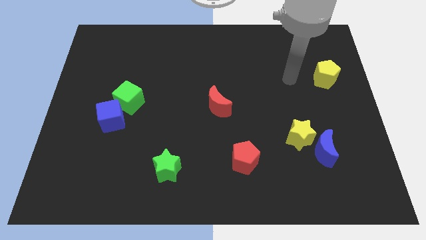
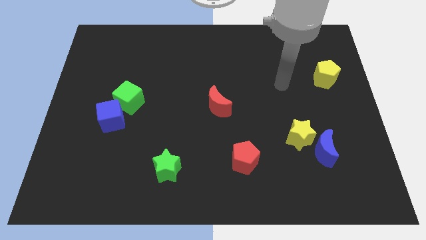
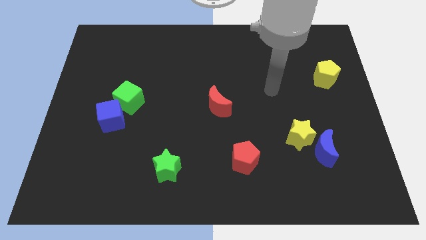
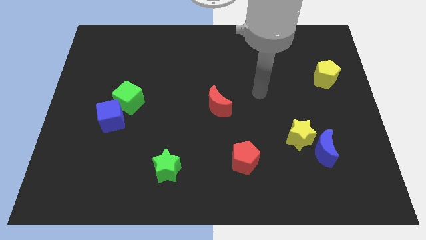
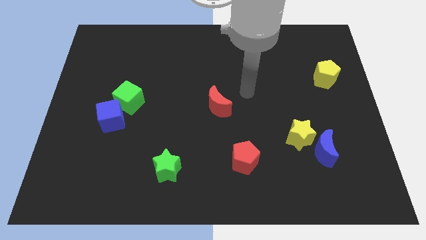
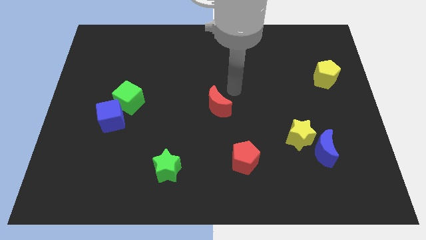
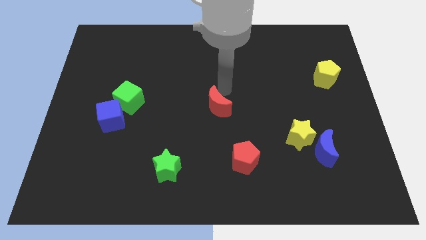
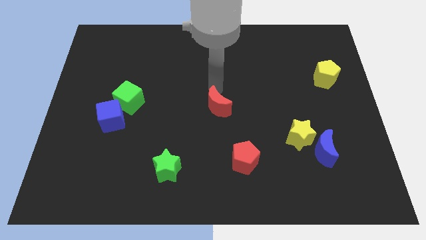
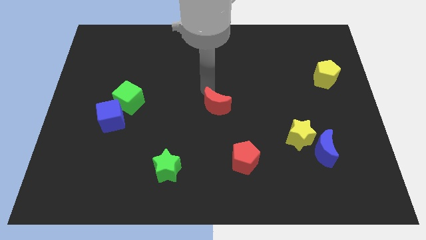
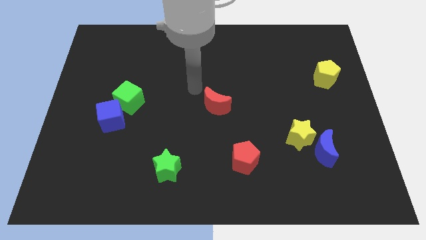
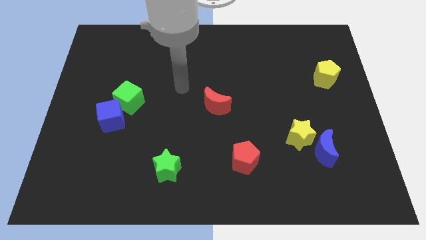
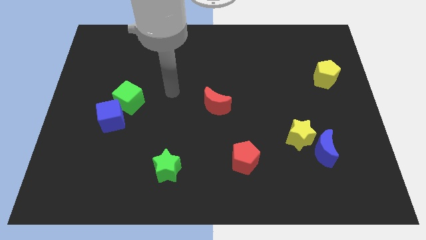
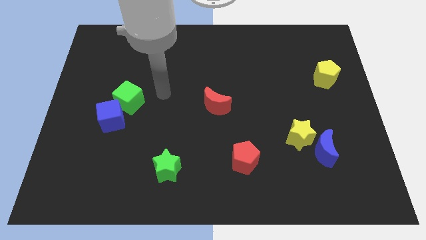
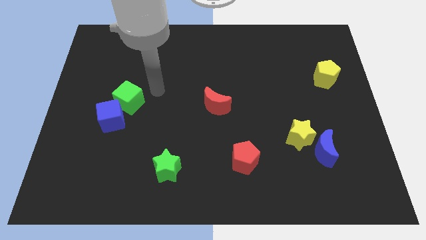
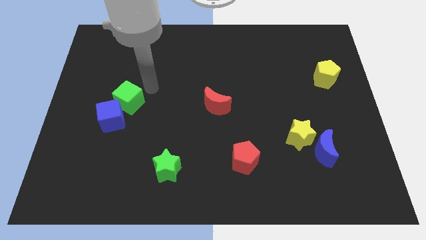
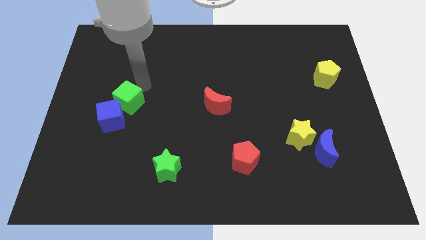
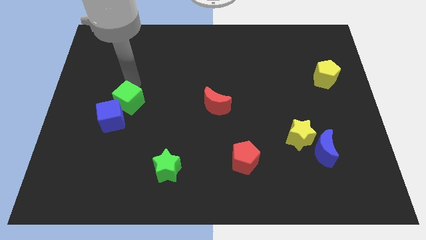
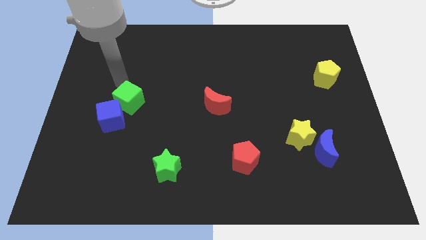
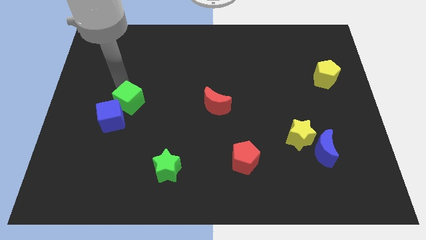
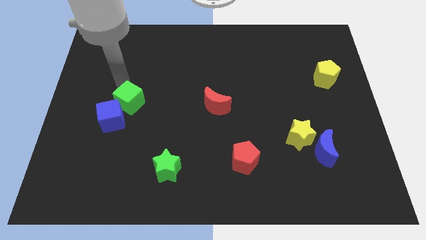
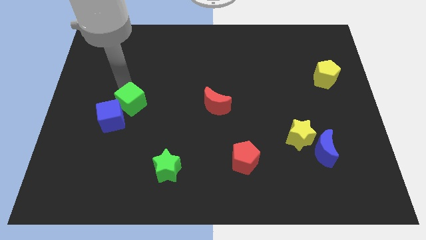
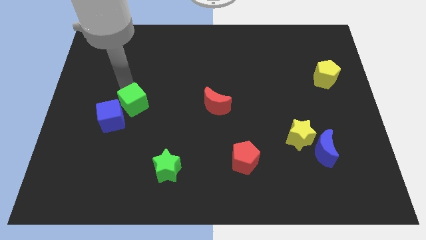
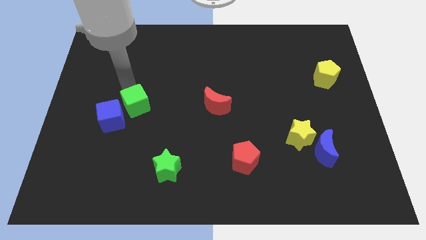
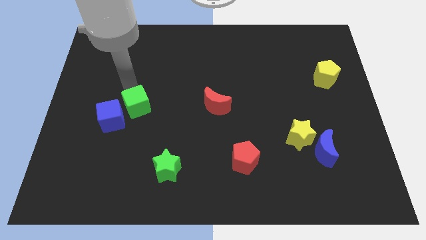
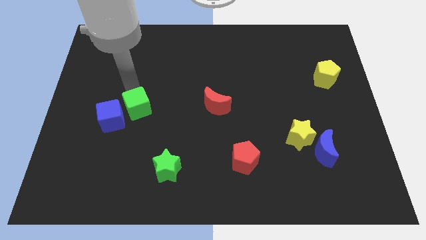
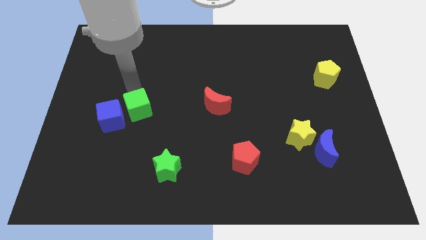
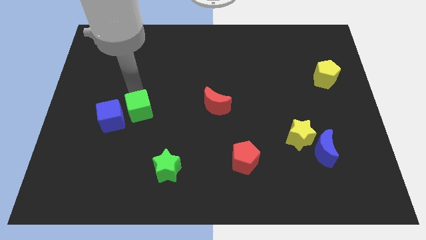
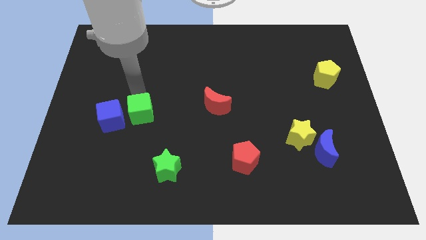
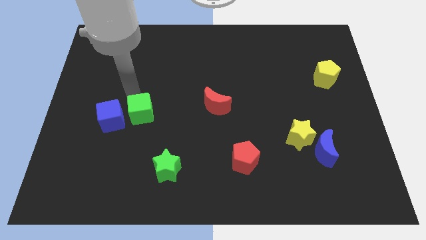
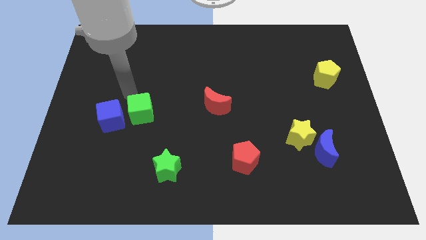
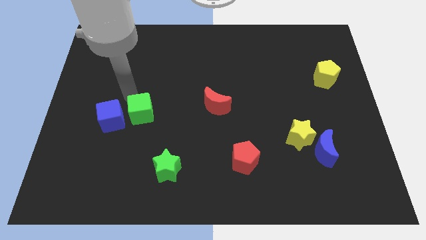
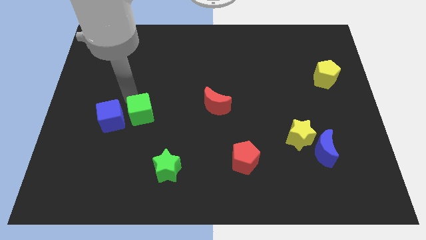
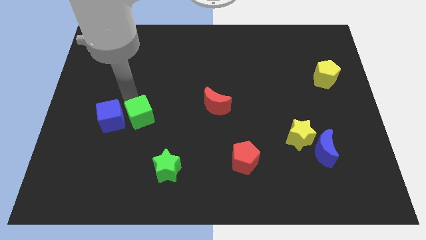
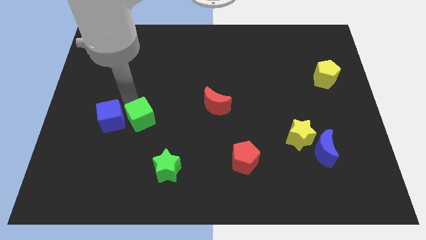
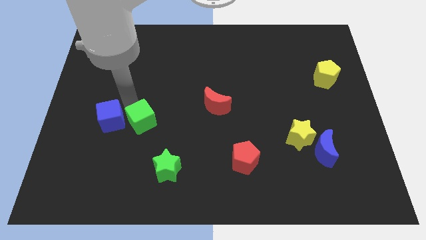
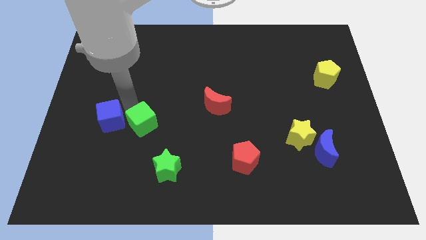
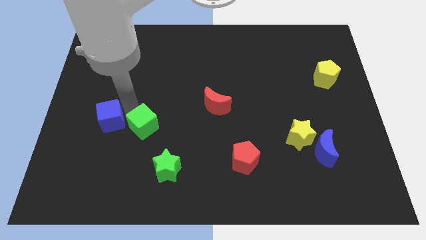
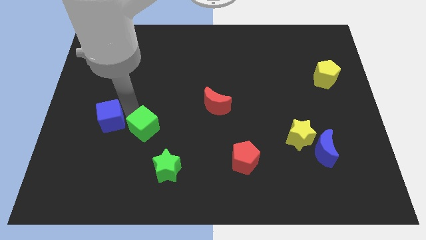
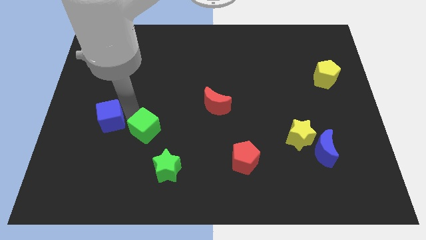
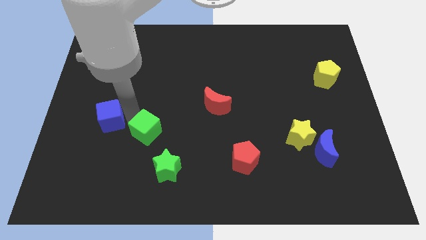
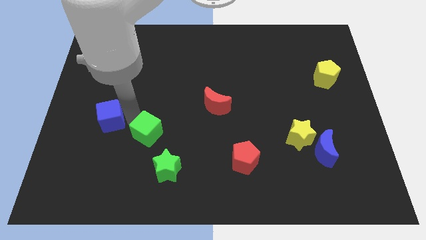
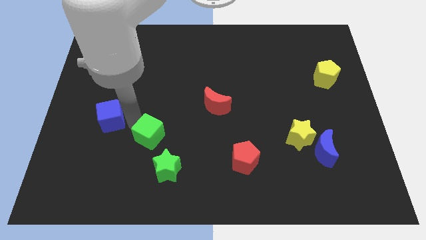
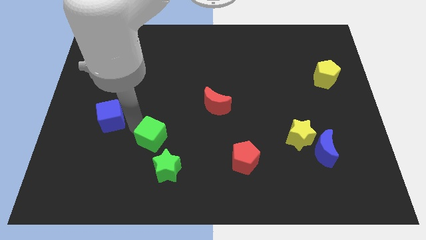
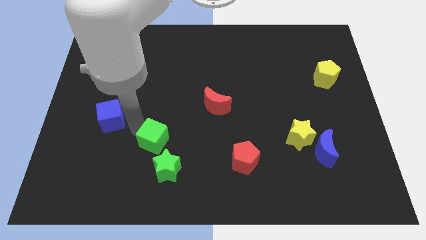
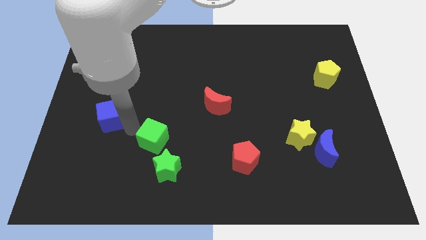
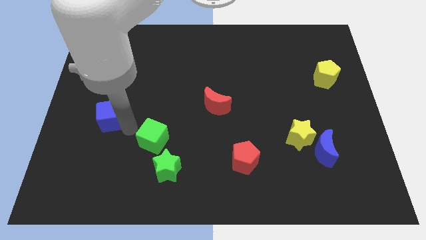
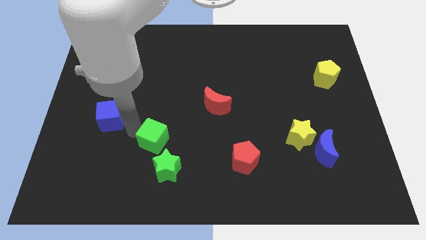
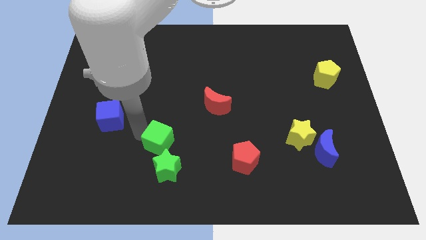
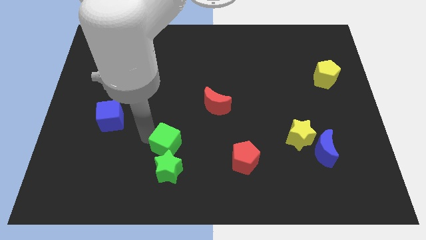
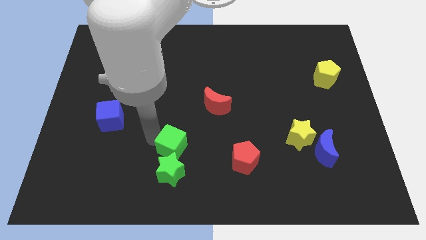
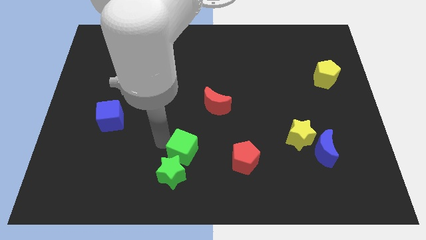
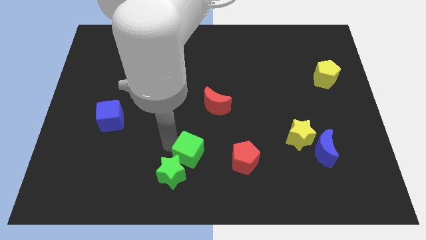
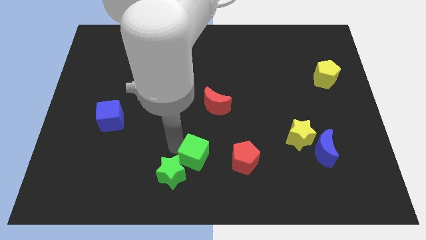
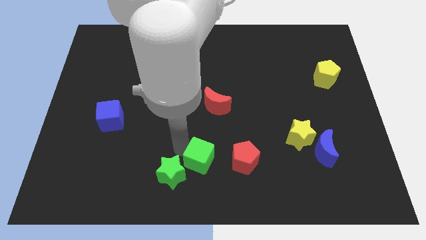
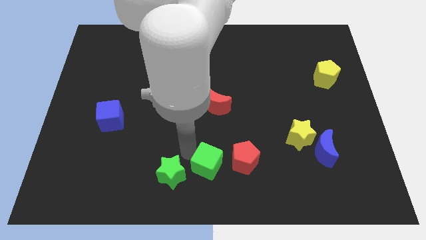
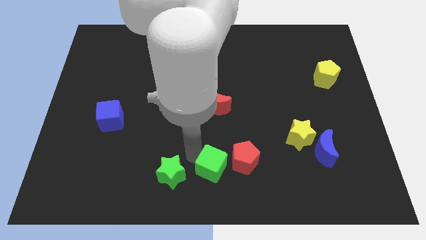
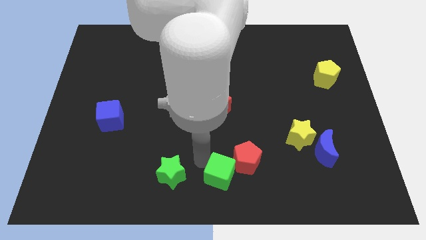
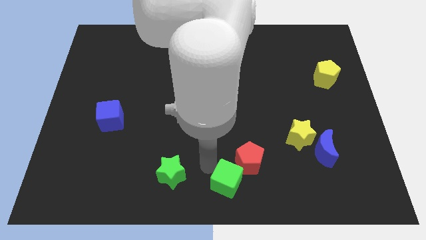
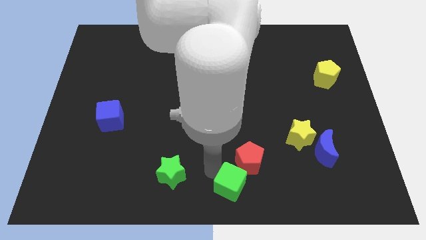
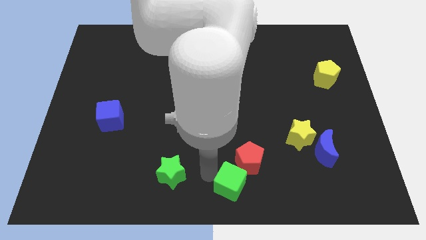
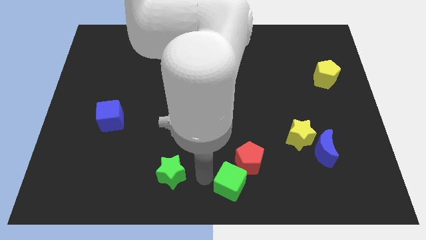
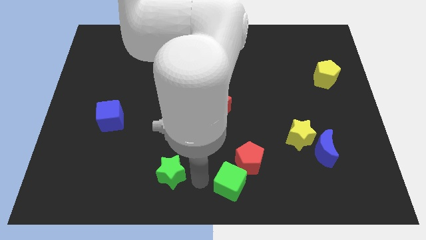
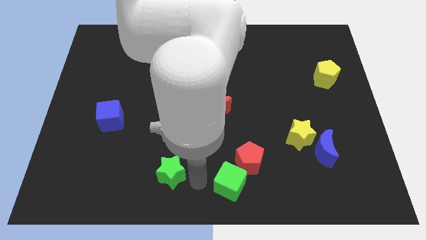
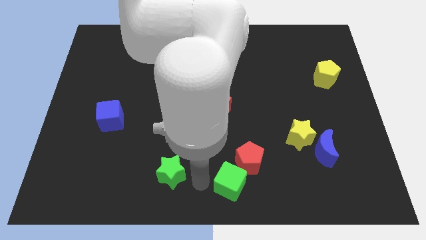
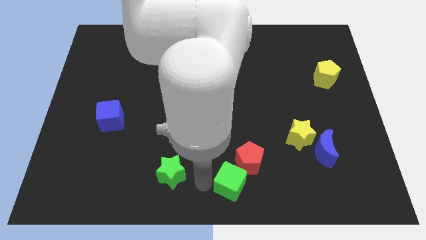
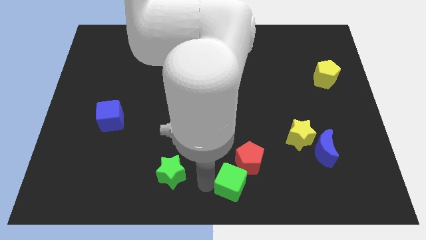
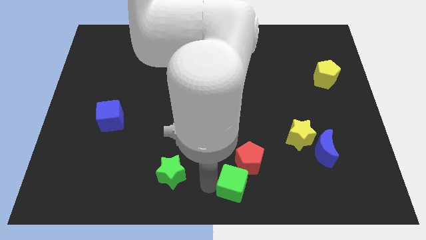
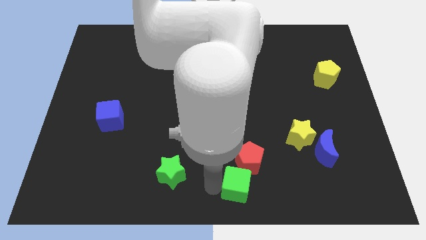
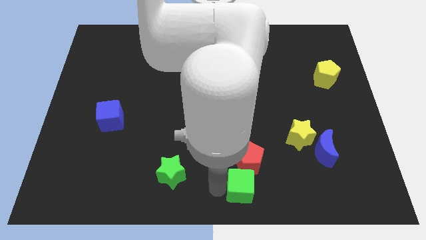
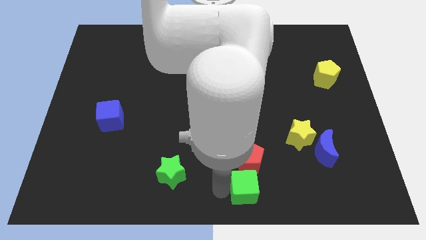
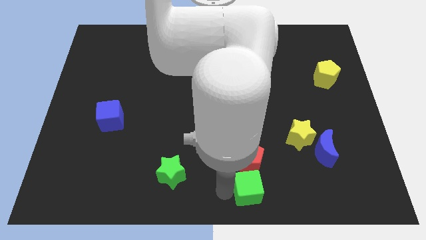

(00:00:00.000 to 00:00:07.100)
push the green cube diagonally down and to the right of the red pentagon

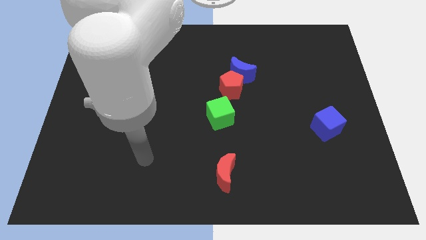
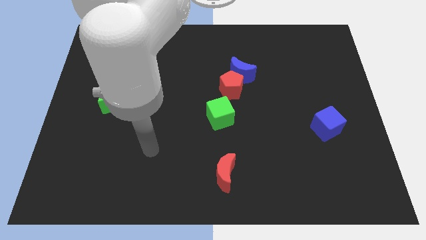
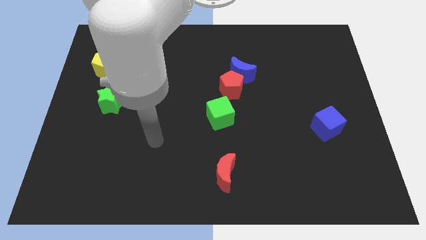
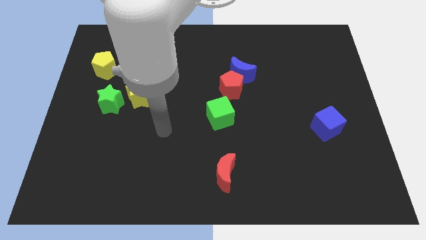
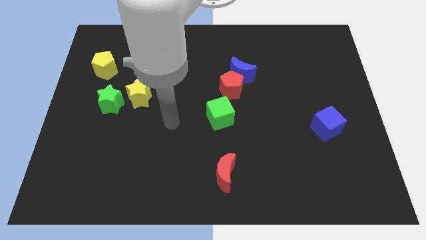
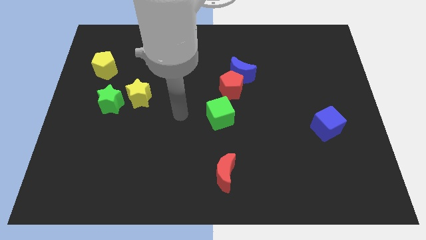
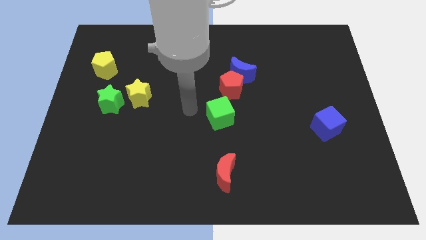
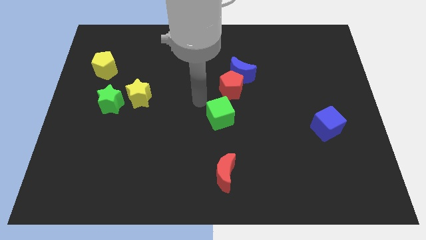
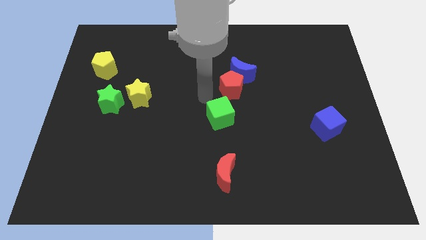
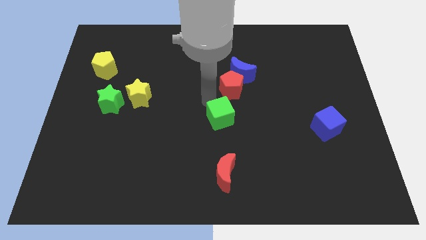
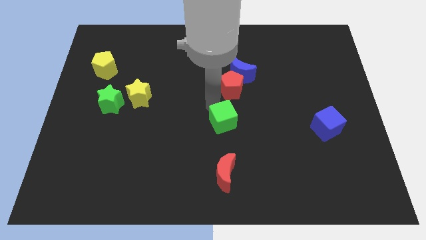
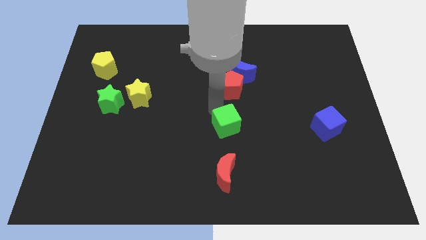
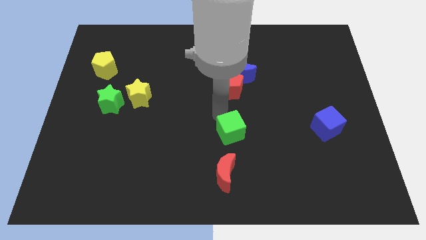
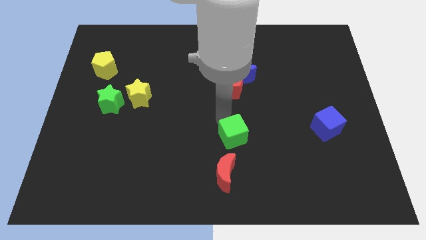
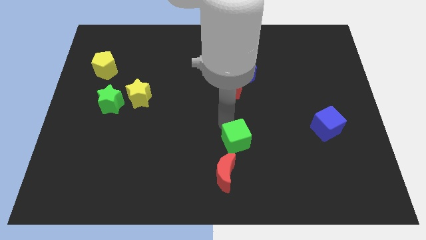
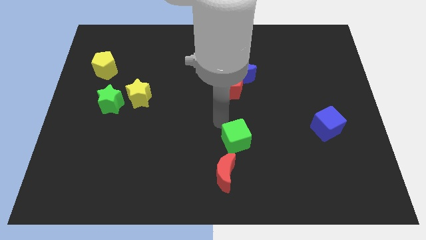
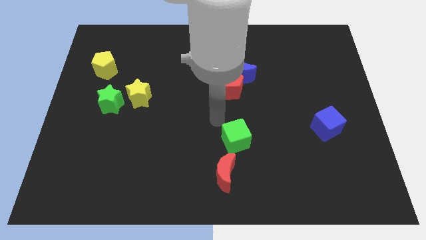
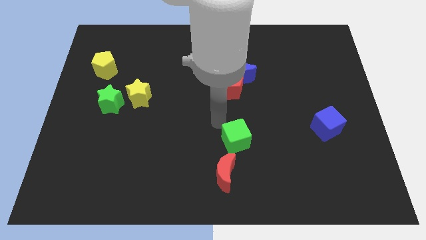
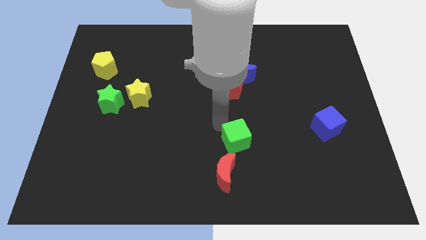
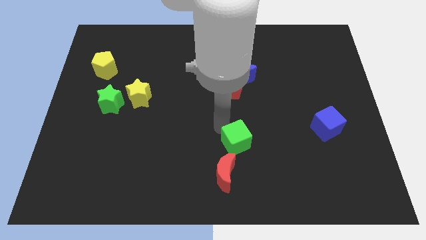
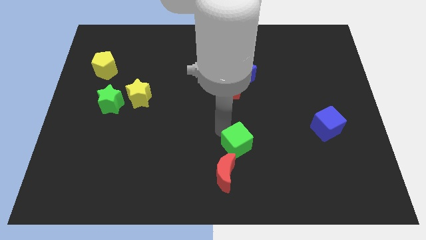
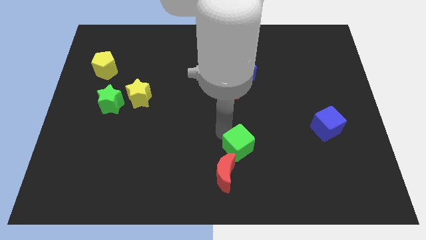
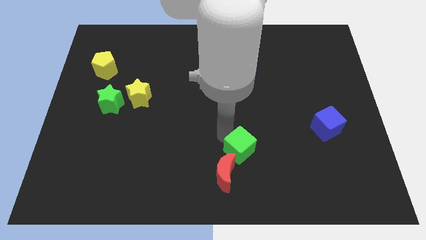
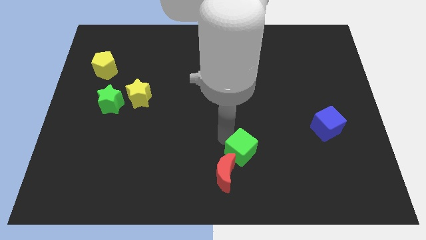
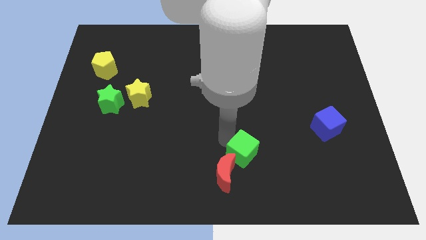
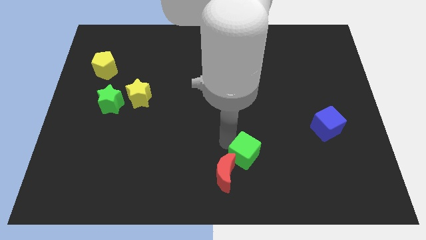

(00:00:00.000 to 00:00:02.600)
push the green cube to the right of the red moon
